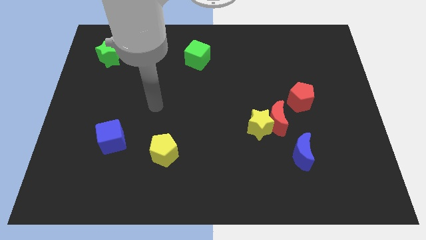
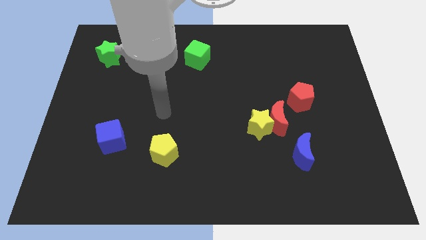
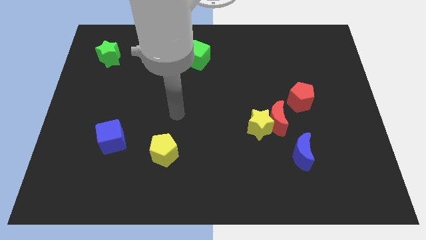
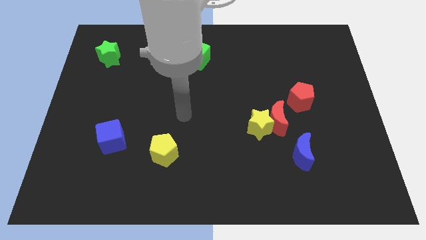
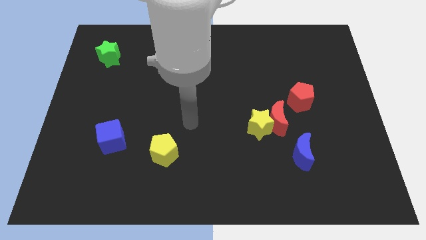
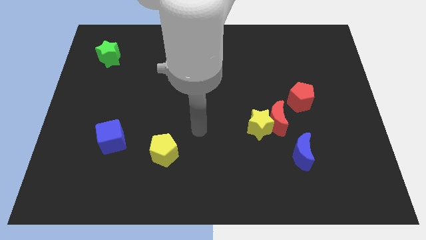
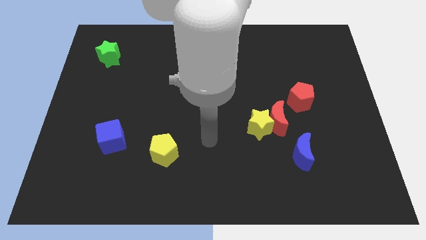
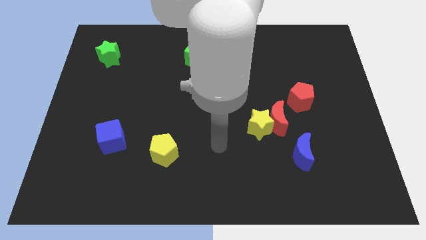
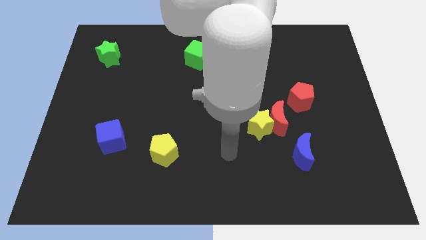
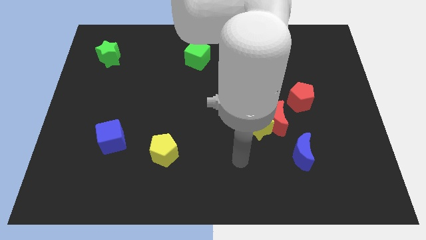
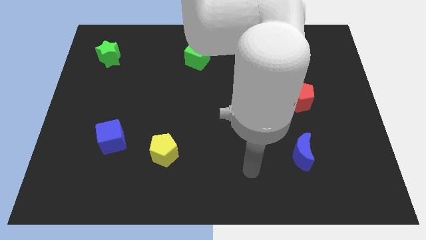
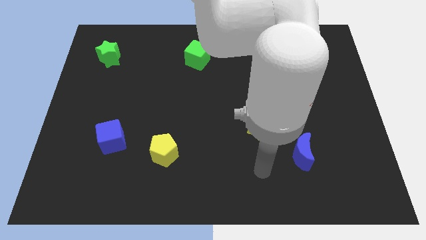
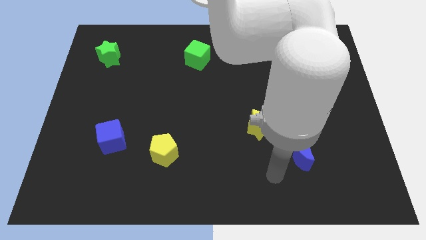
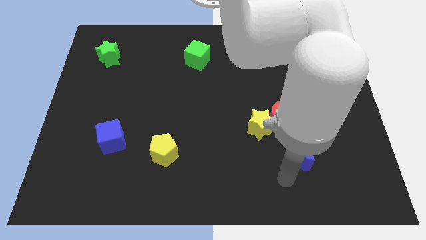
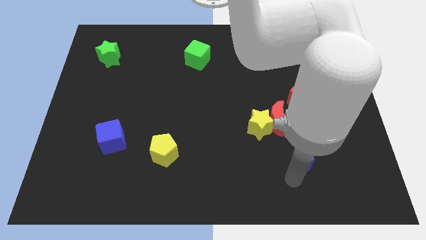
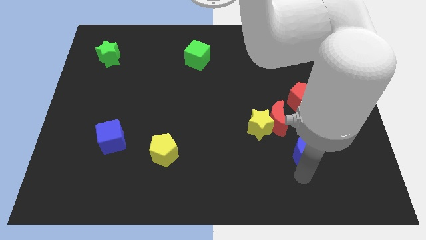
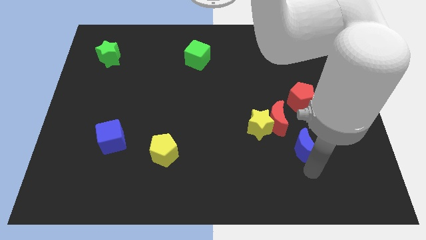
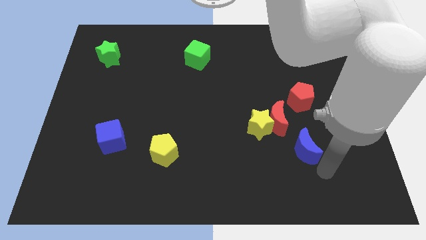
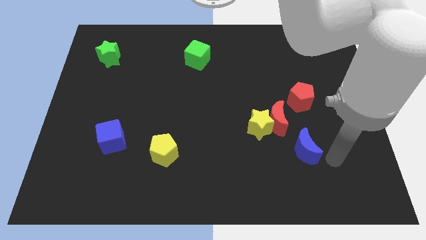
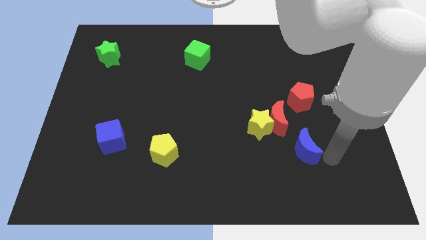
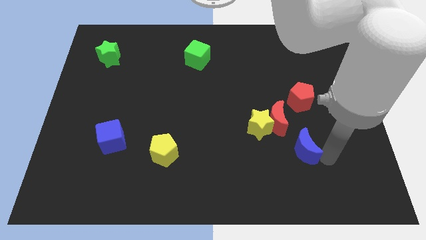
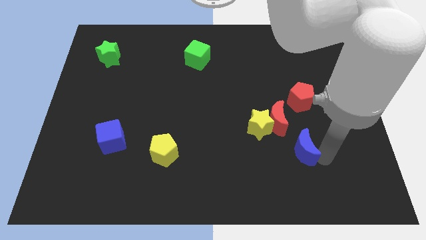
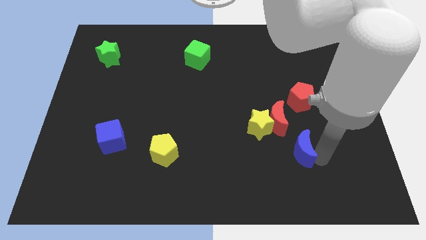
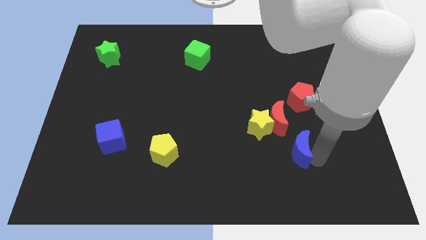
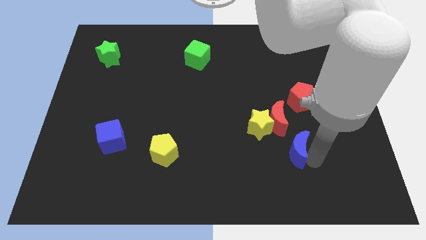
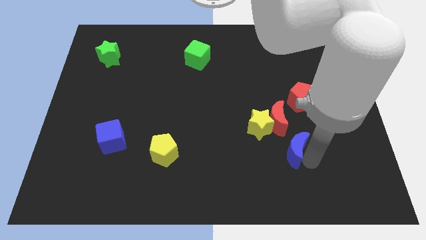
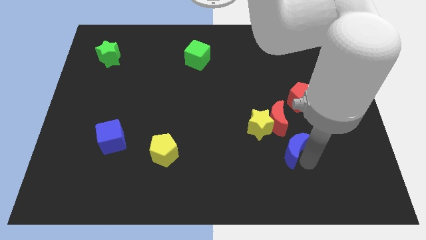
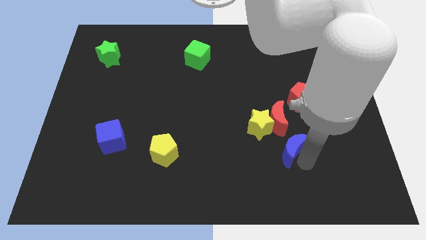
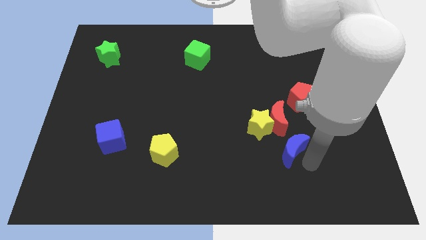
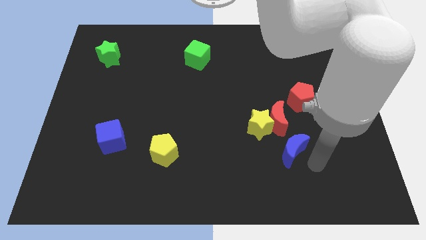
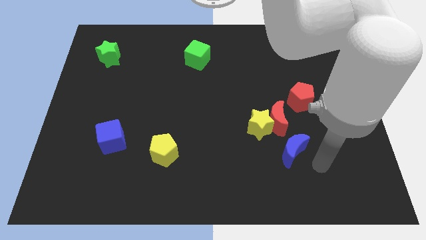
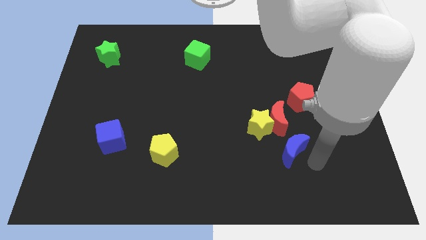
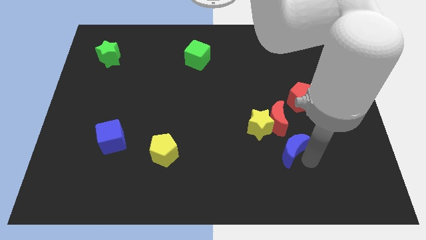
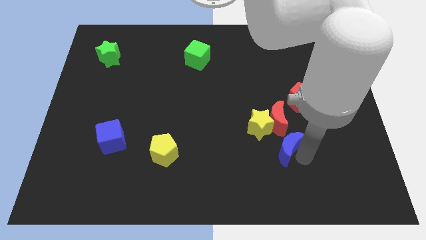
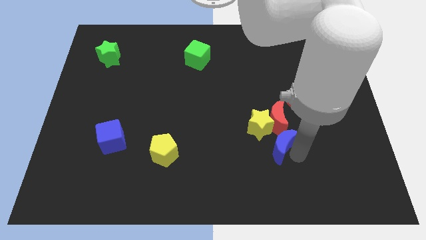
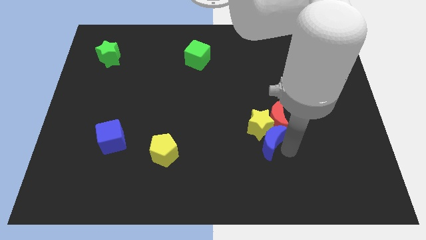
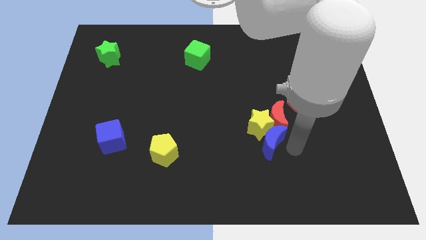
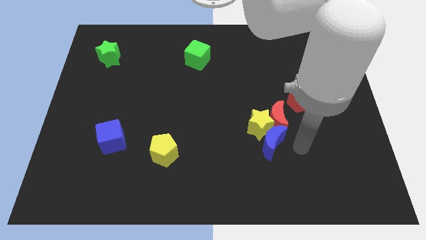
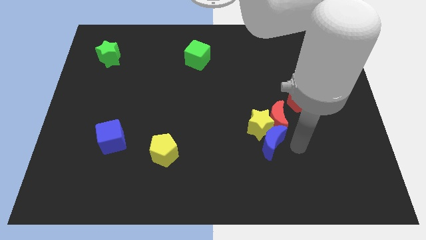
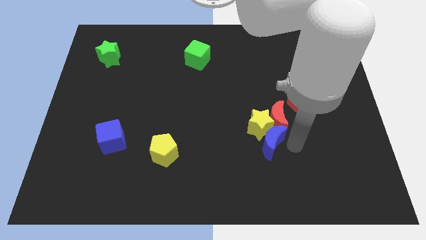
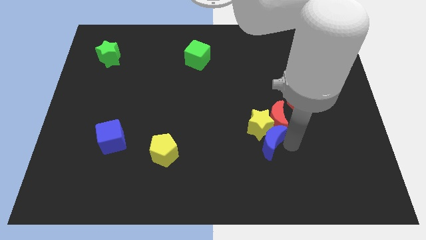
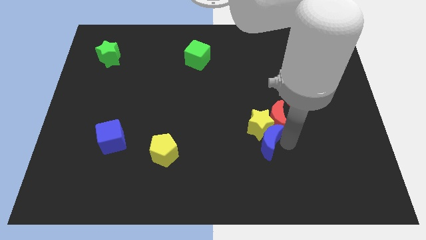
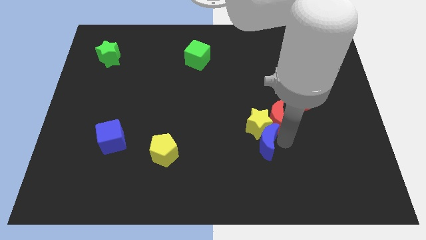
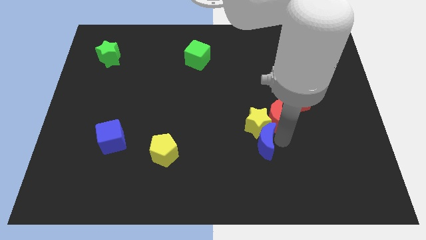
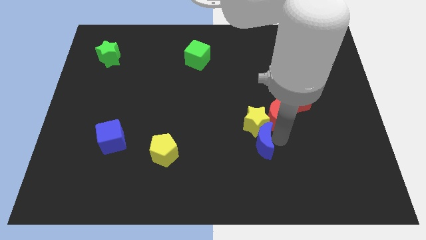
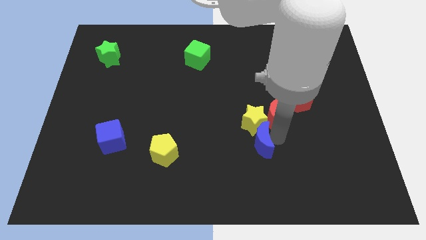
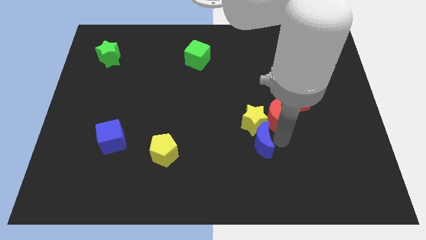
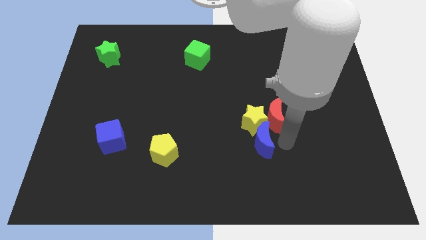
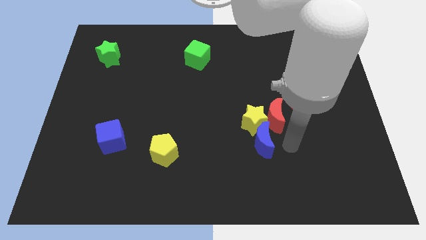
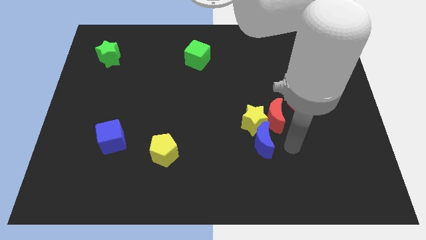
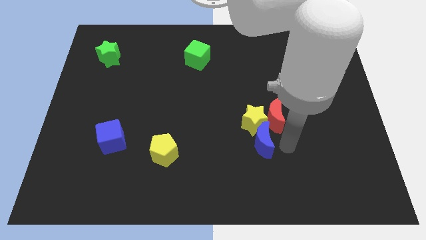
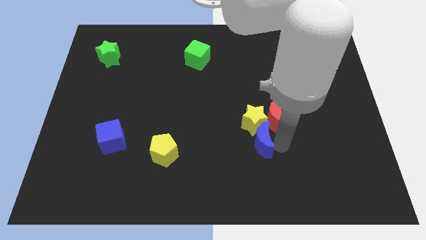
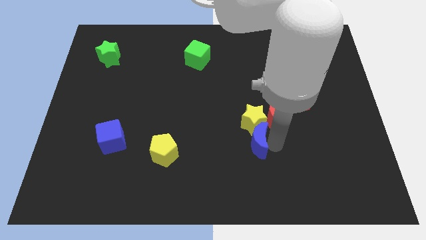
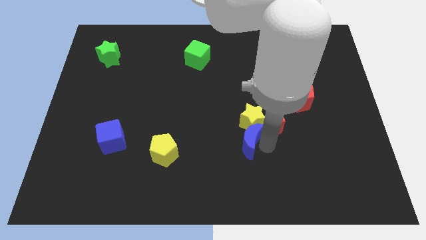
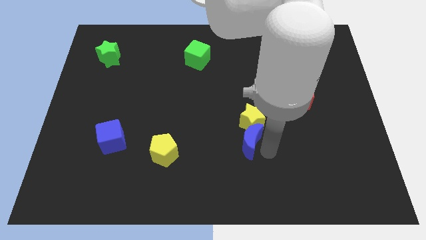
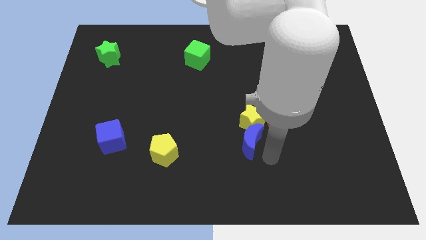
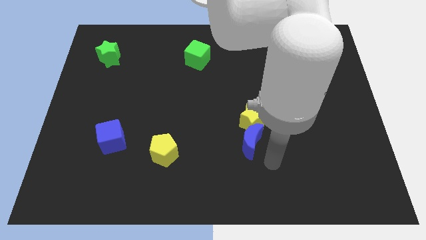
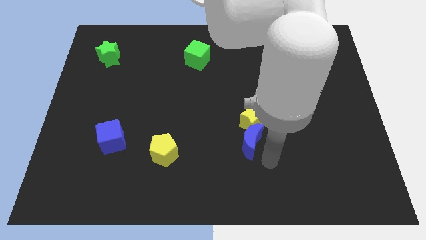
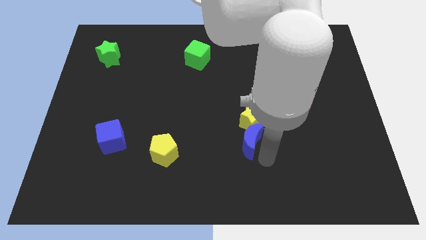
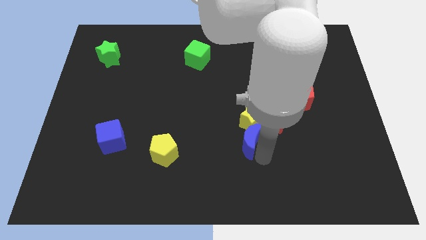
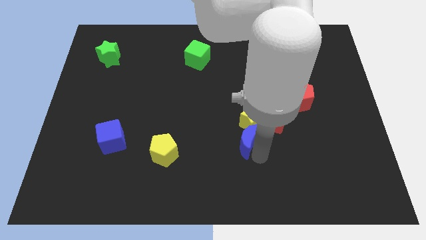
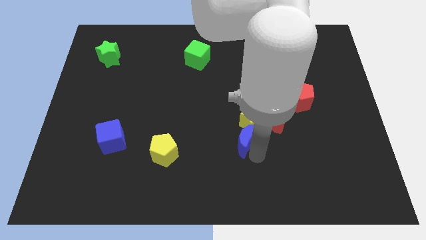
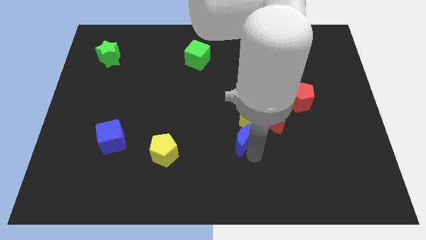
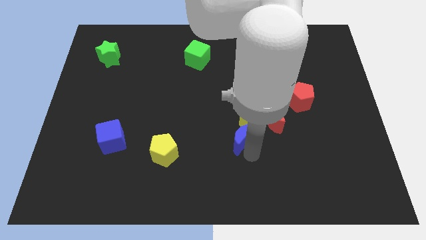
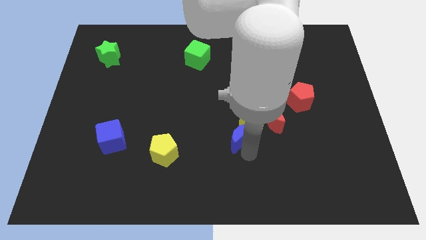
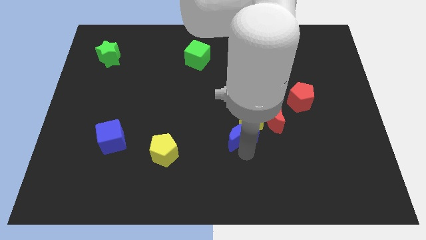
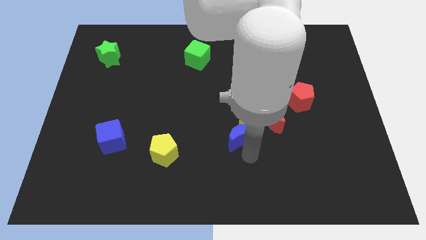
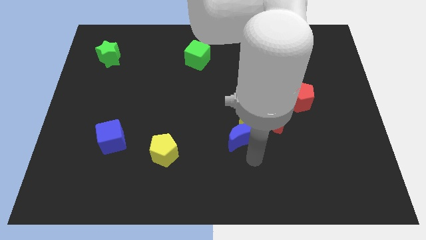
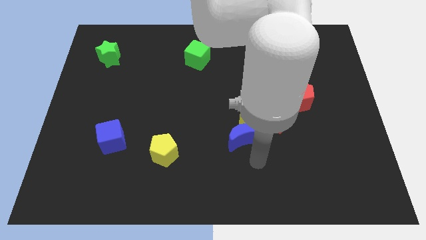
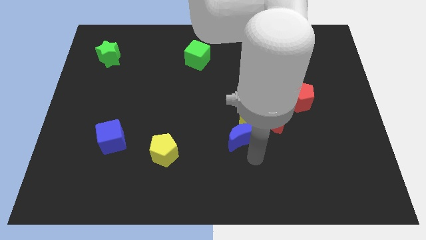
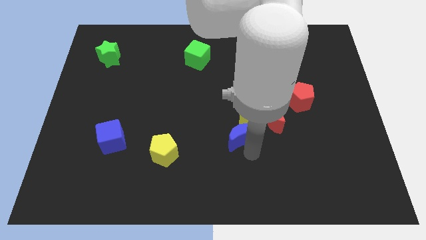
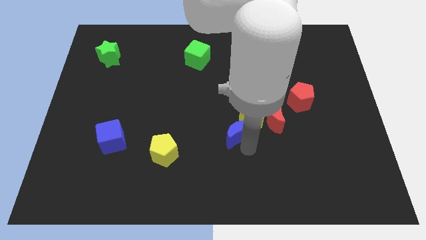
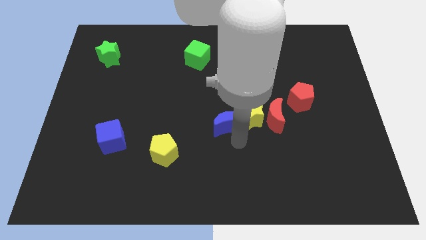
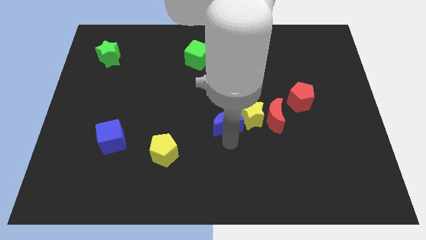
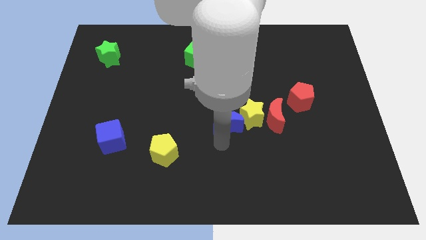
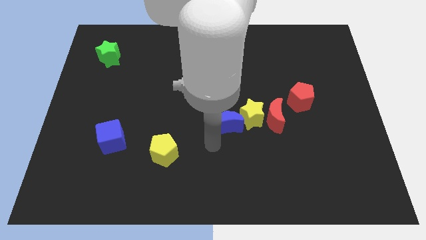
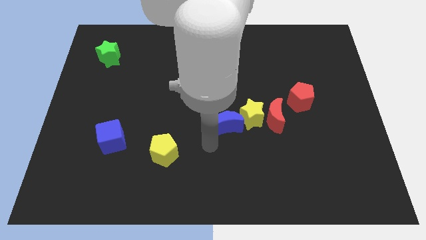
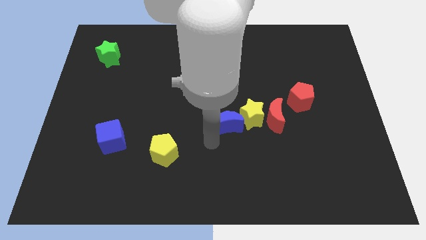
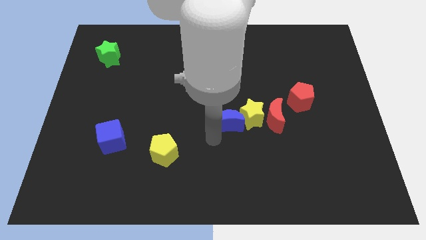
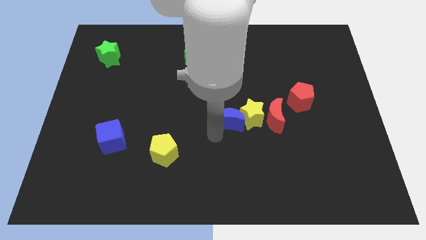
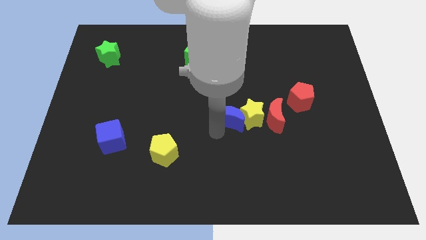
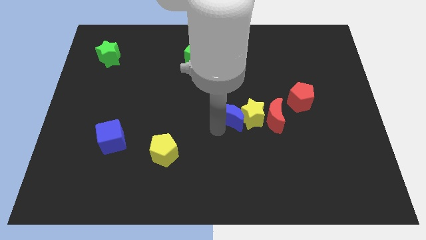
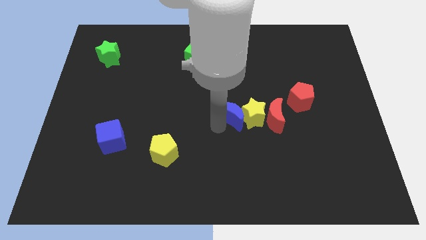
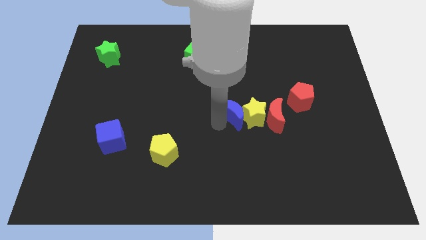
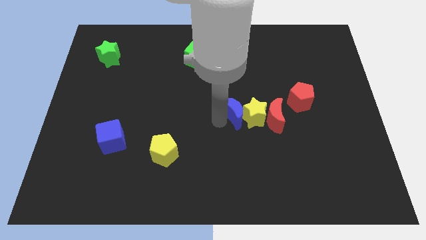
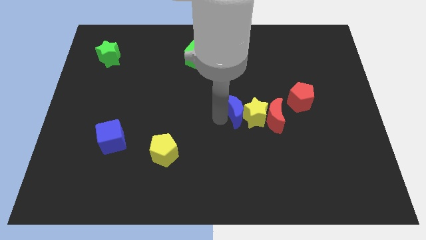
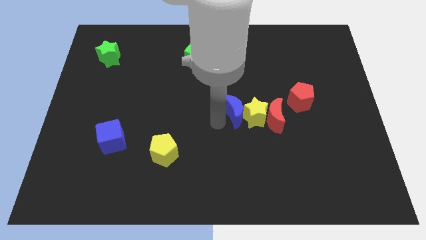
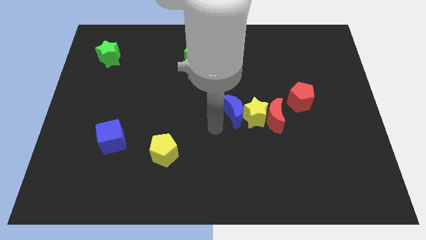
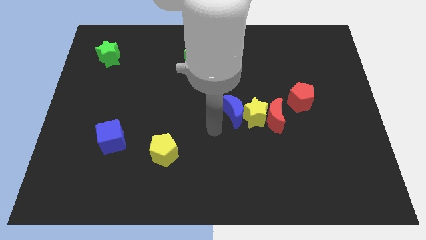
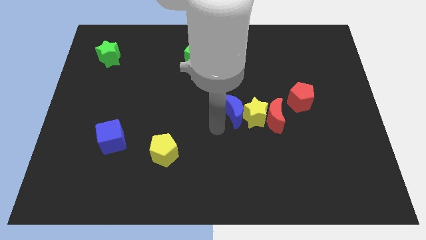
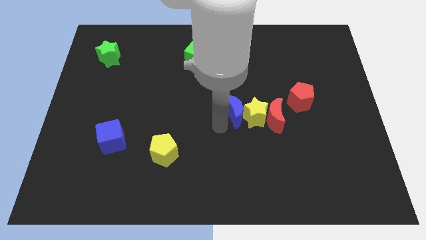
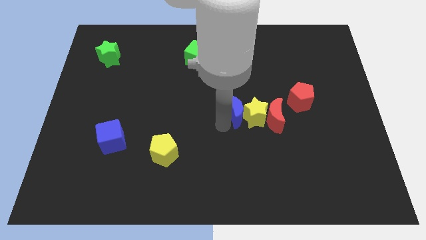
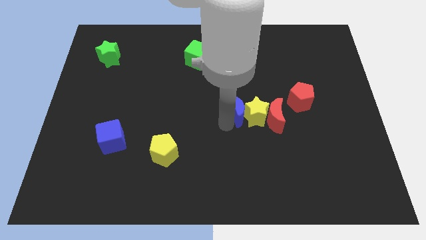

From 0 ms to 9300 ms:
push the blue moon to the top left of the red moon
